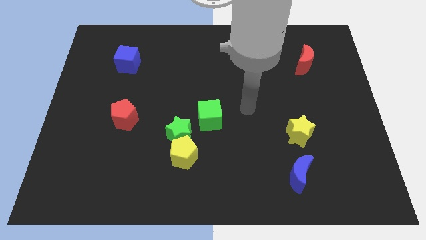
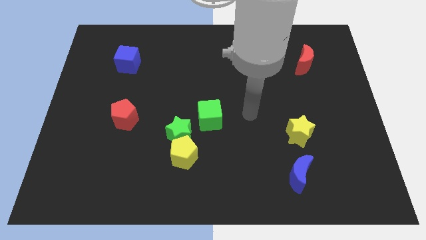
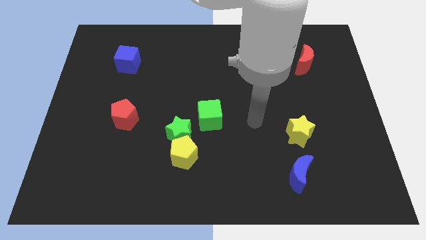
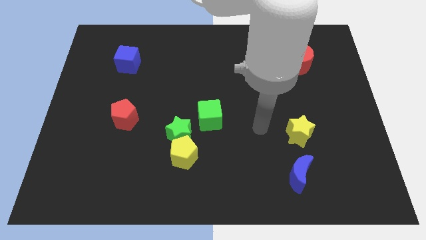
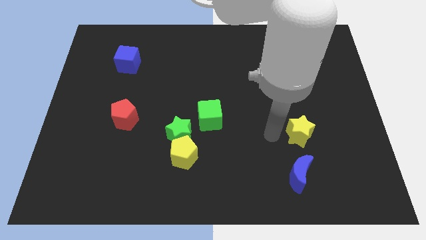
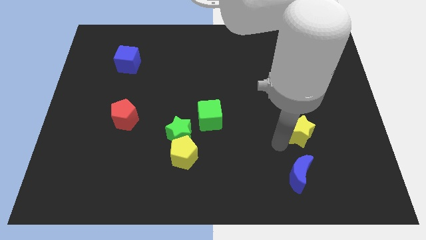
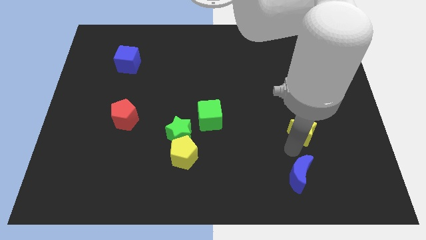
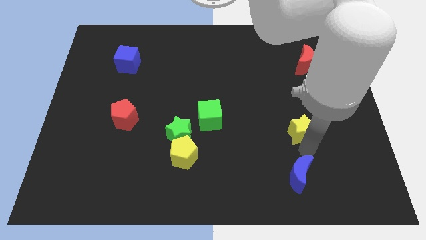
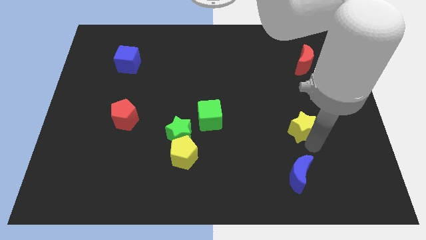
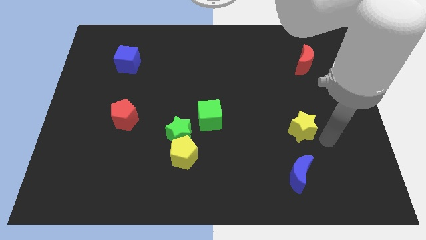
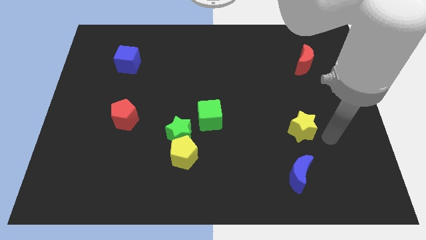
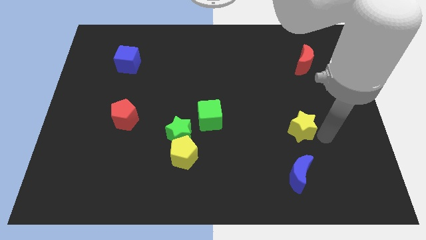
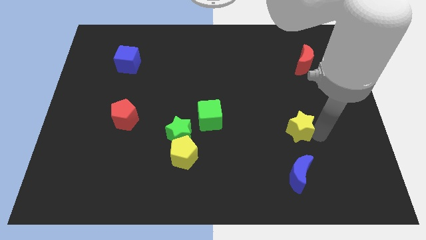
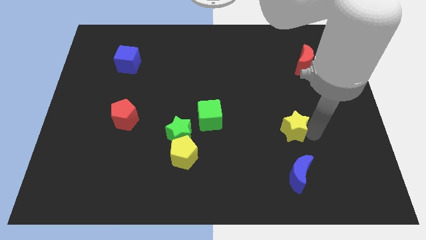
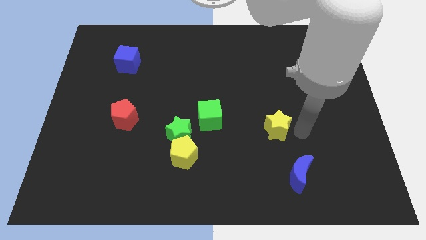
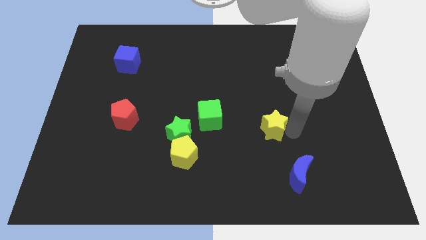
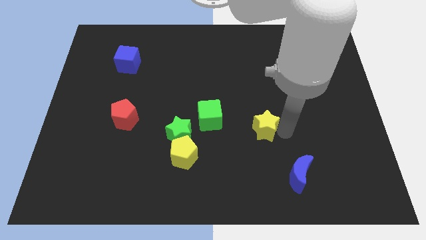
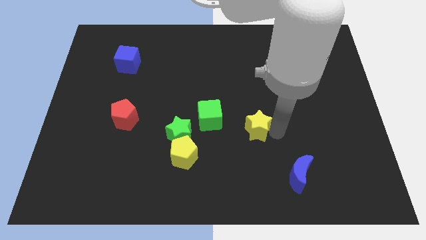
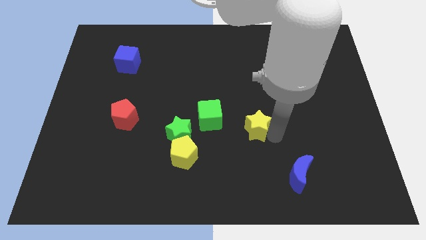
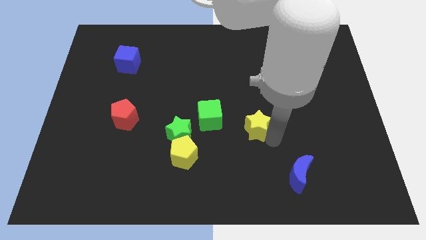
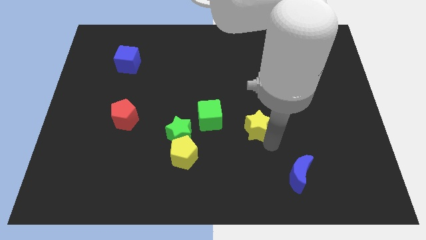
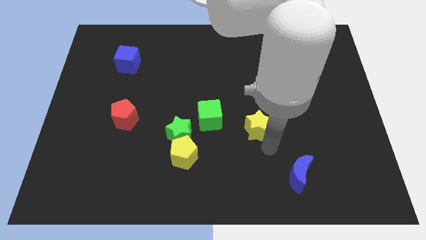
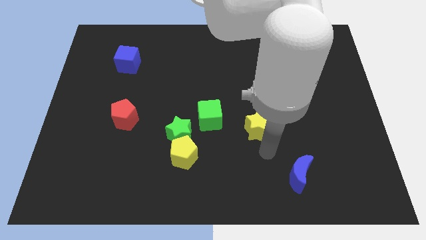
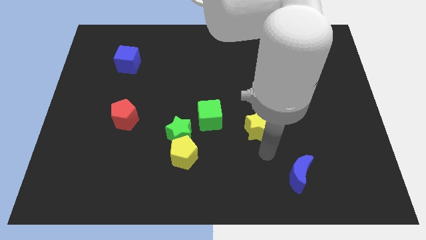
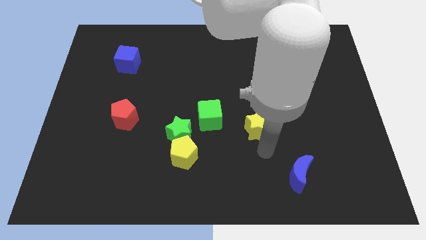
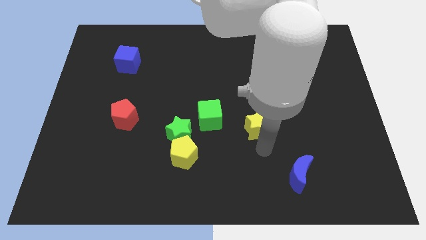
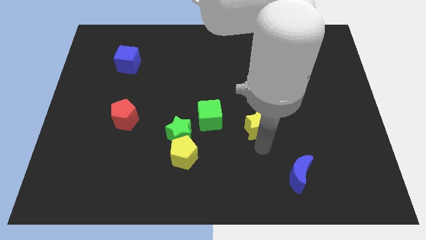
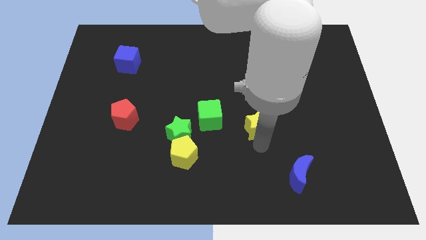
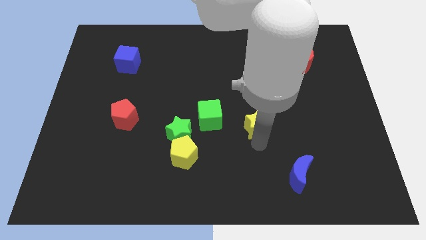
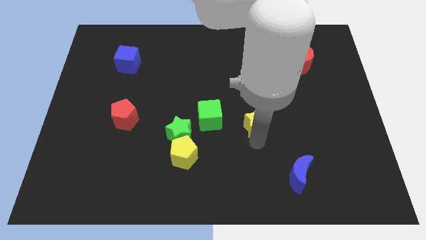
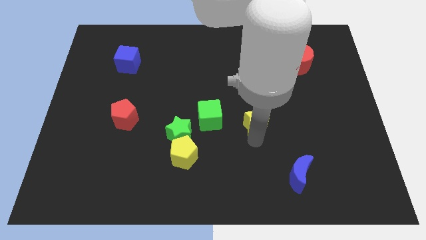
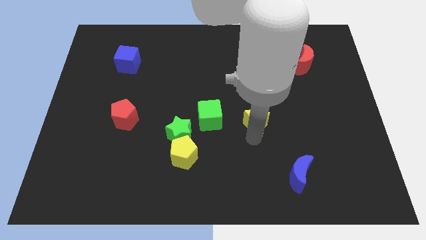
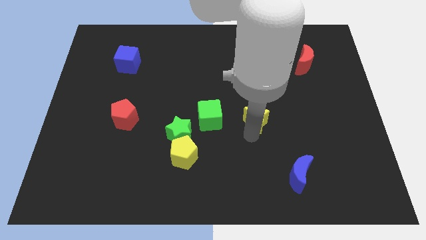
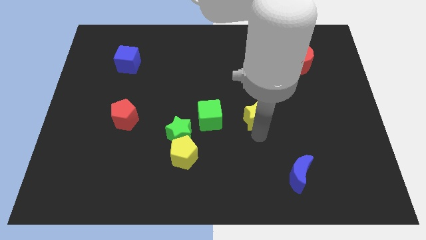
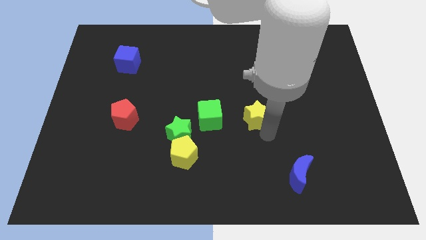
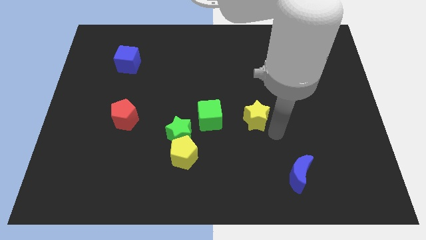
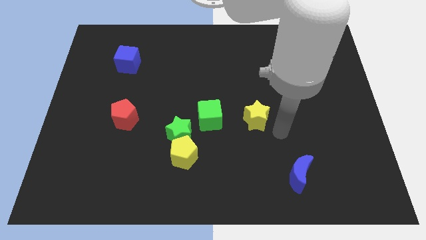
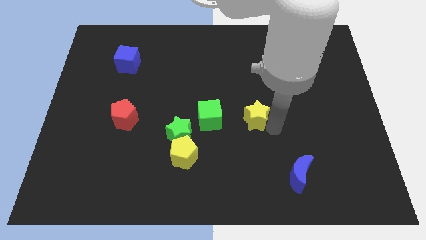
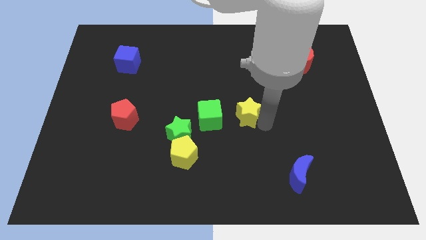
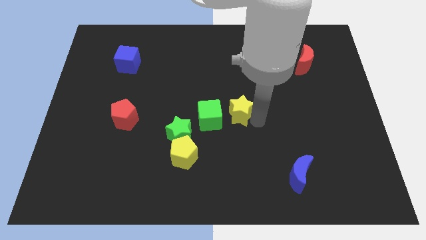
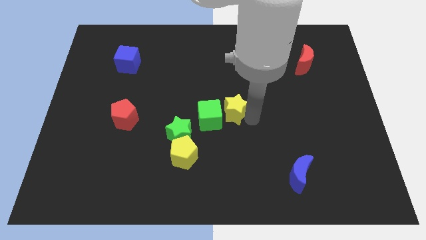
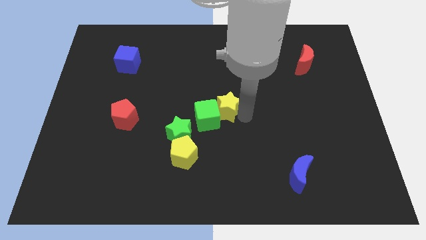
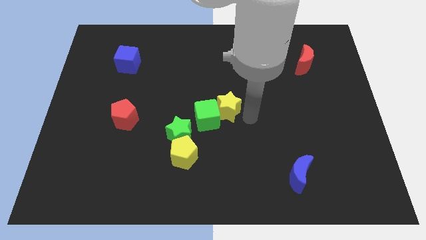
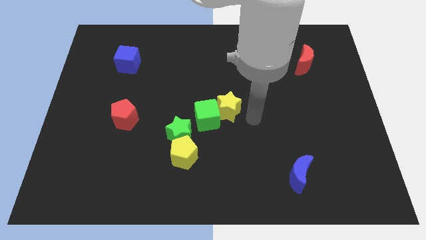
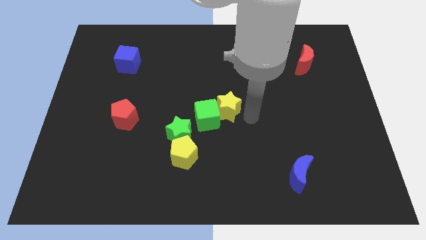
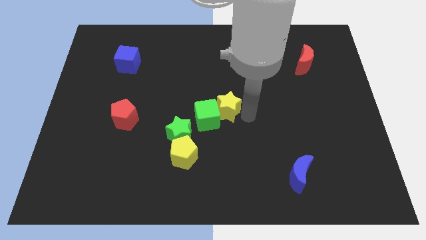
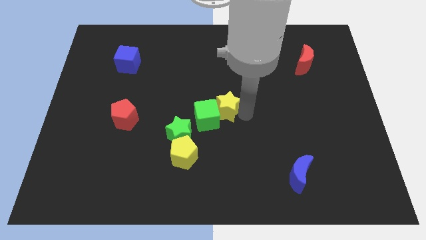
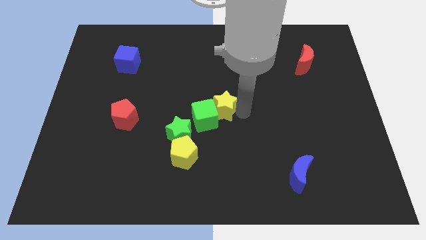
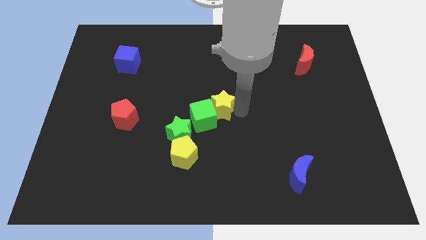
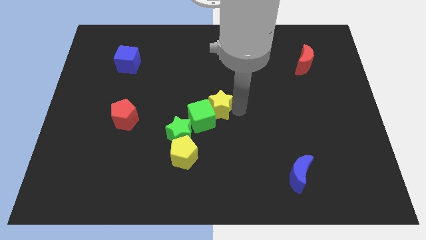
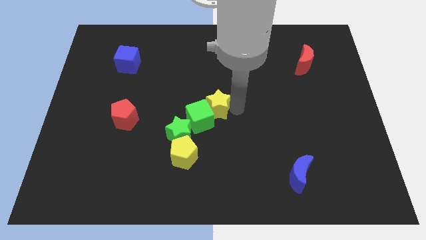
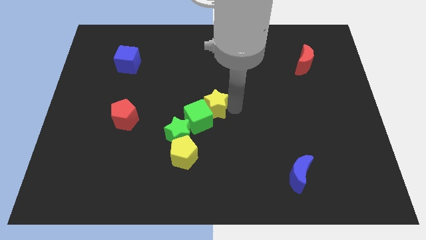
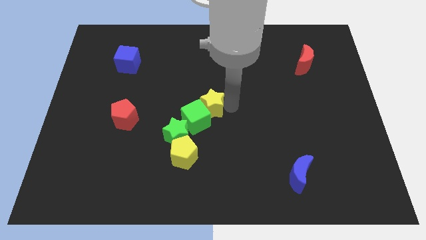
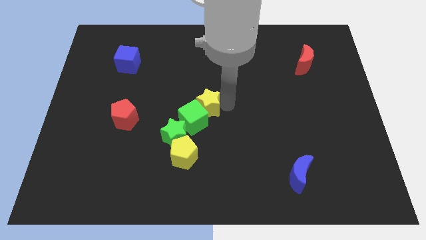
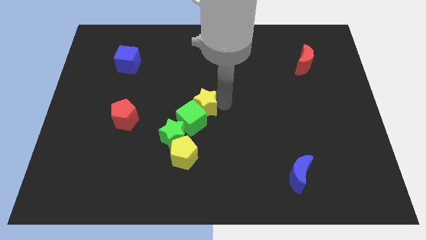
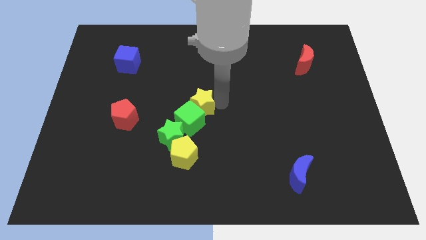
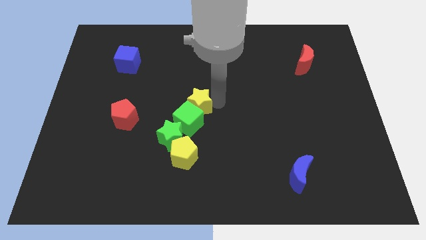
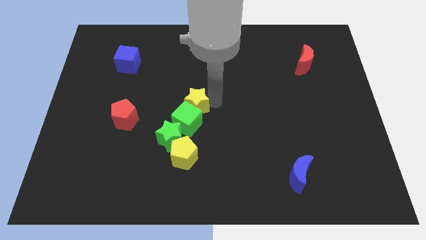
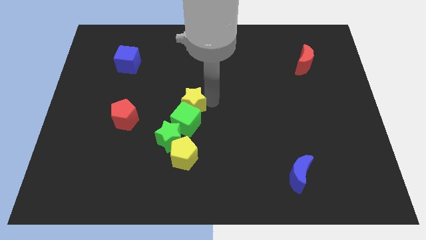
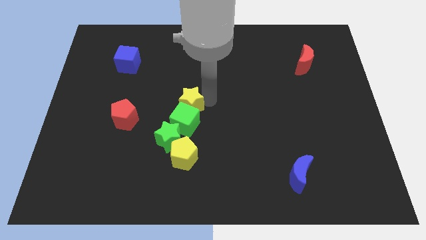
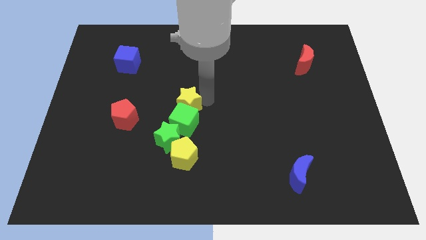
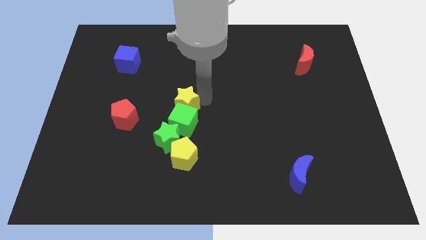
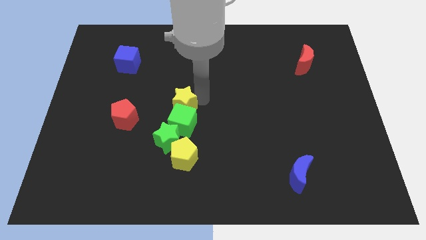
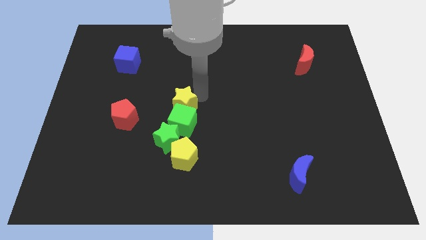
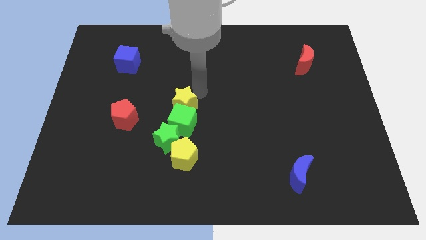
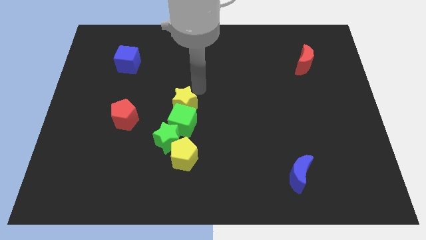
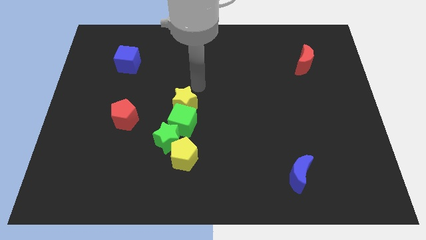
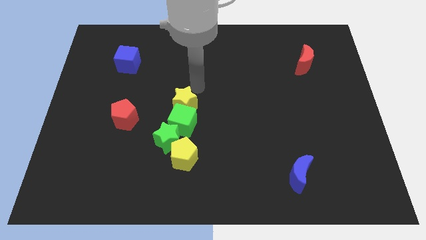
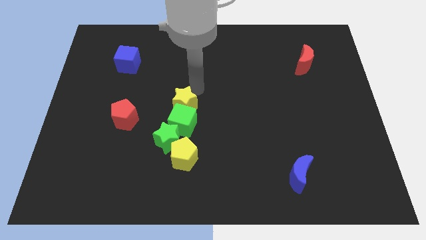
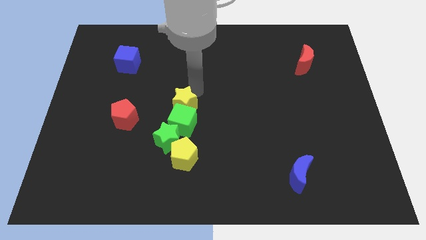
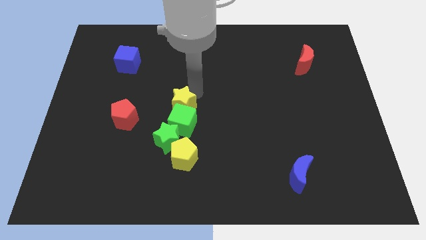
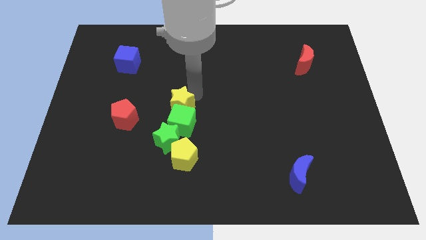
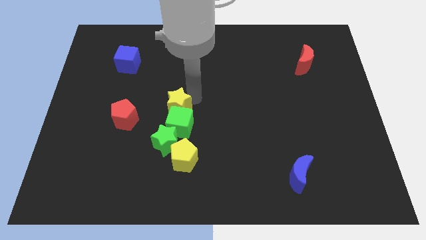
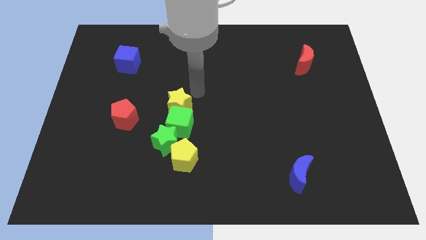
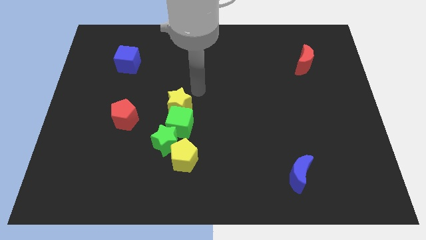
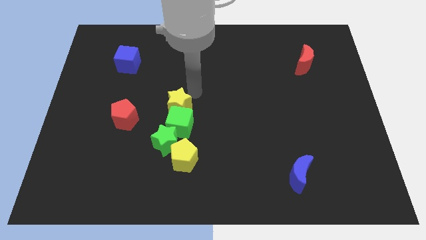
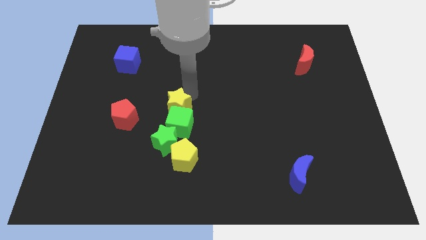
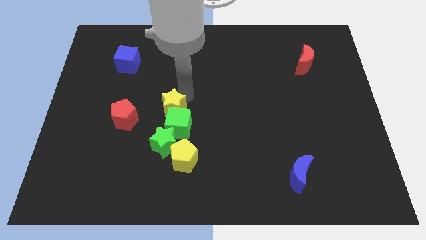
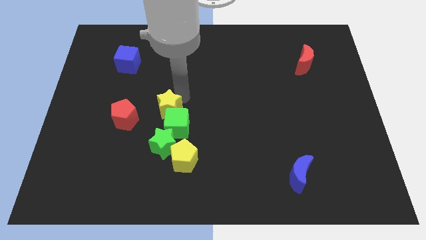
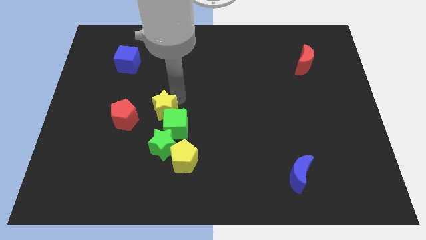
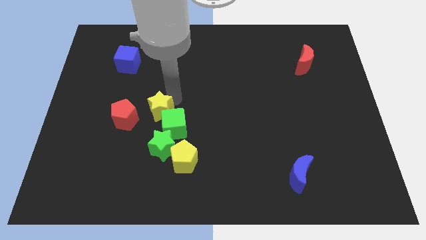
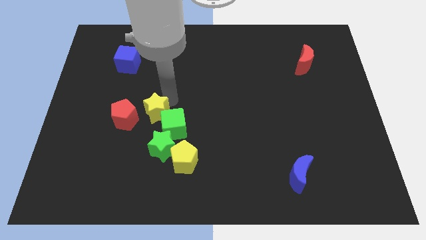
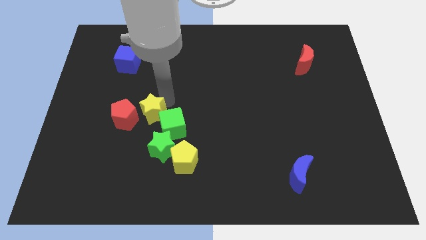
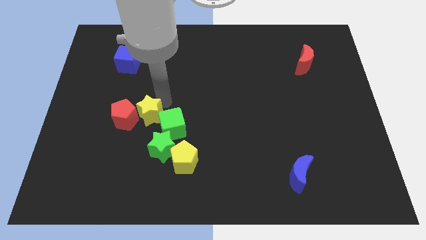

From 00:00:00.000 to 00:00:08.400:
move the yellow star to the bottom right side of the red pentagon
